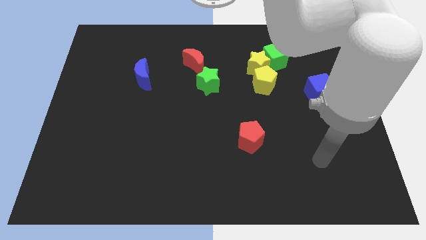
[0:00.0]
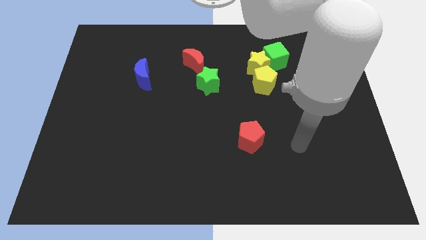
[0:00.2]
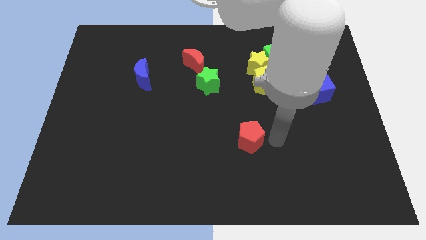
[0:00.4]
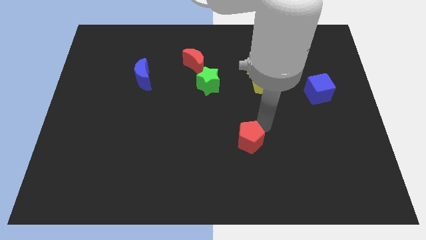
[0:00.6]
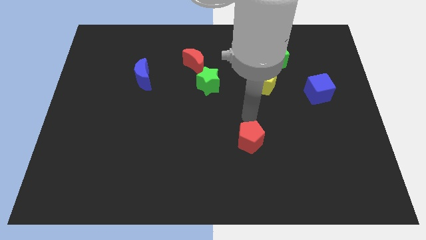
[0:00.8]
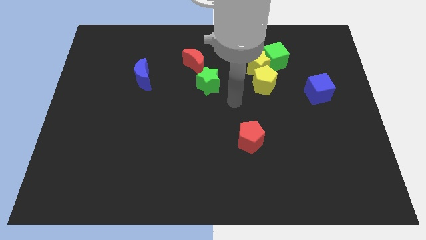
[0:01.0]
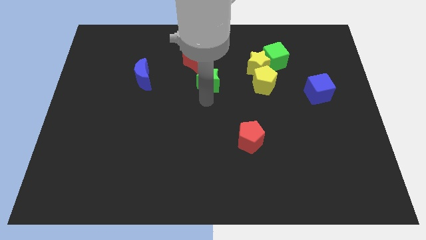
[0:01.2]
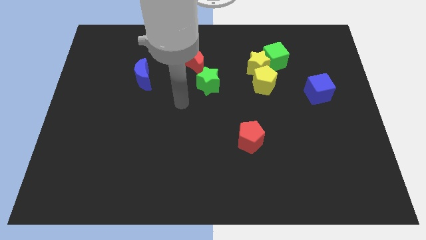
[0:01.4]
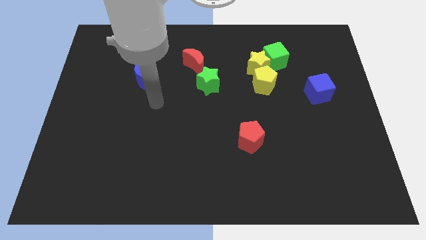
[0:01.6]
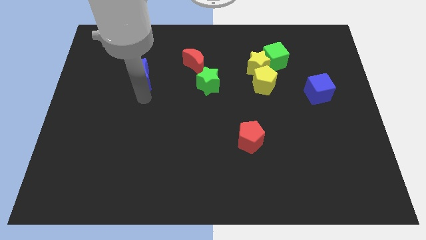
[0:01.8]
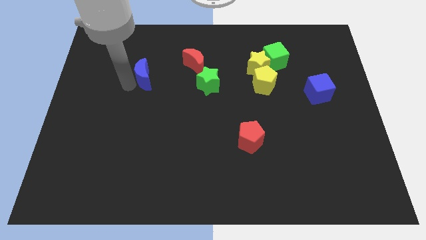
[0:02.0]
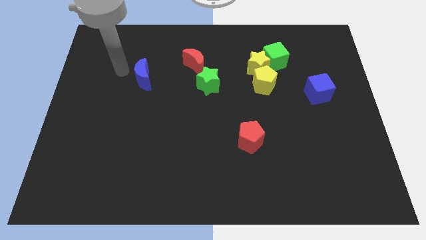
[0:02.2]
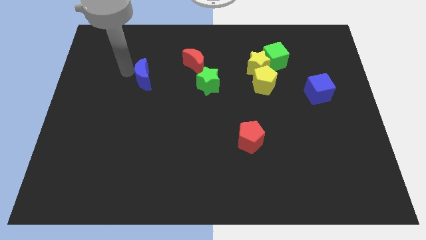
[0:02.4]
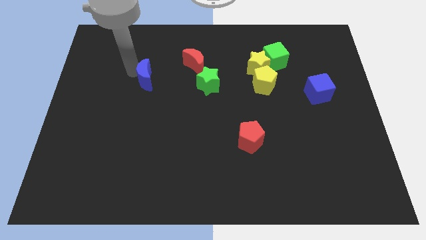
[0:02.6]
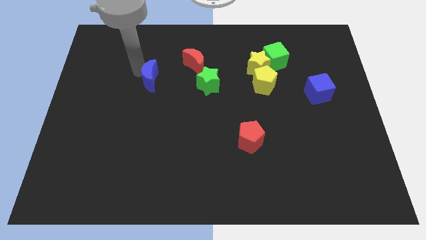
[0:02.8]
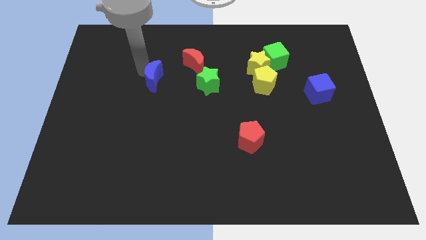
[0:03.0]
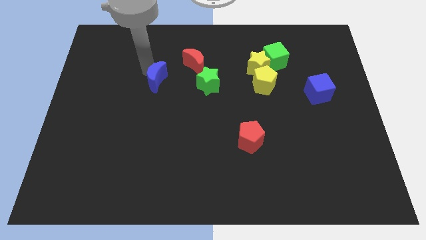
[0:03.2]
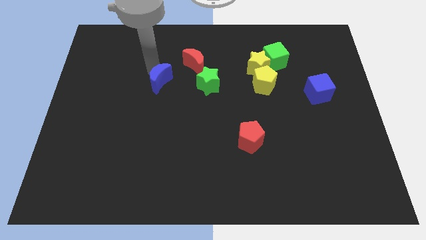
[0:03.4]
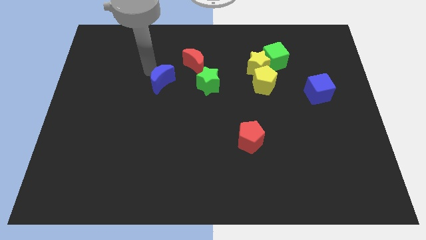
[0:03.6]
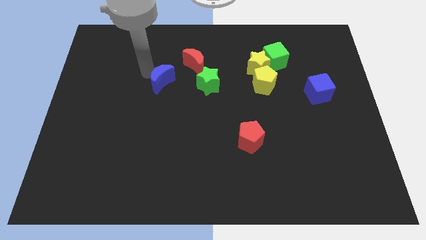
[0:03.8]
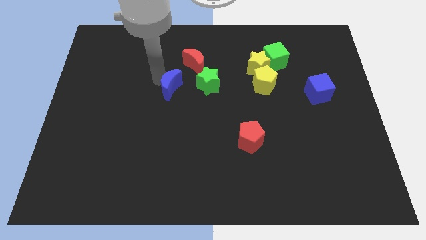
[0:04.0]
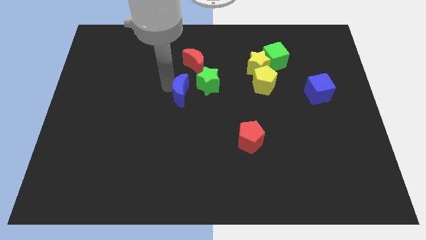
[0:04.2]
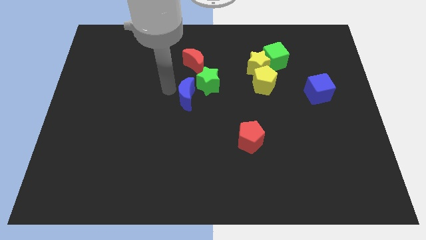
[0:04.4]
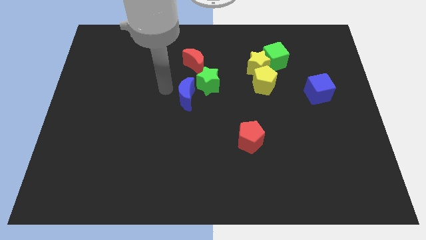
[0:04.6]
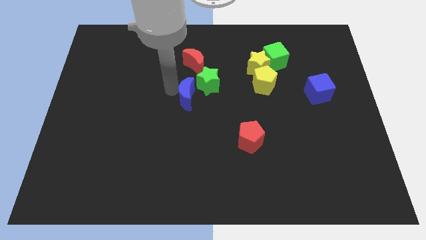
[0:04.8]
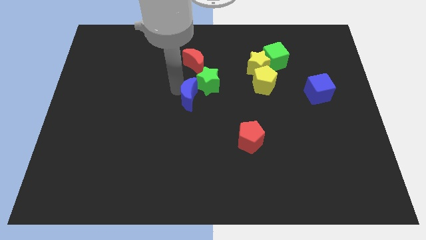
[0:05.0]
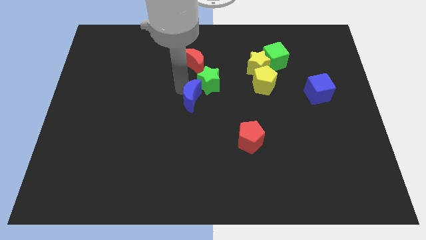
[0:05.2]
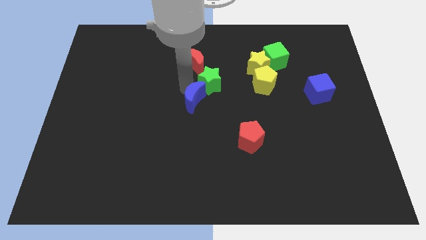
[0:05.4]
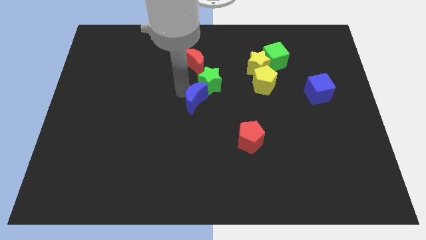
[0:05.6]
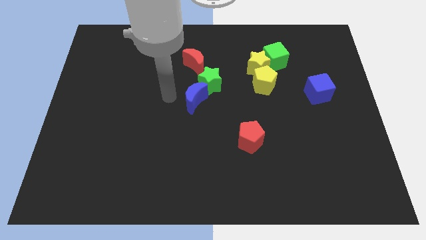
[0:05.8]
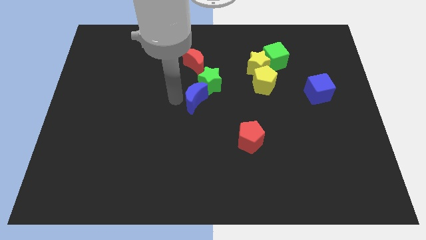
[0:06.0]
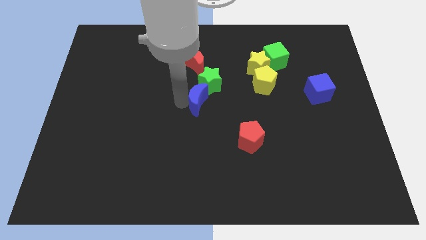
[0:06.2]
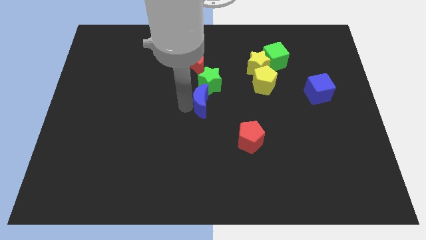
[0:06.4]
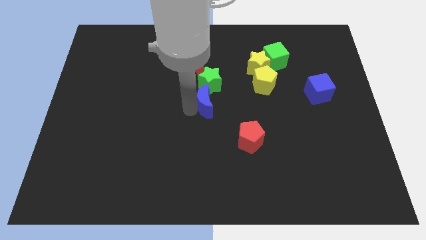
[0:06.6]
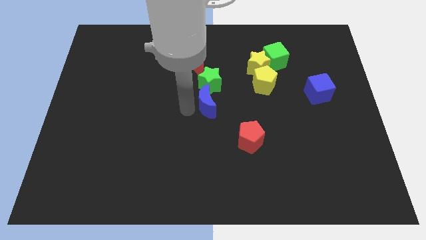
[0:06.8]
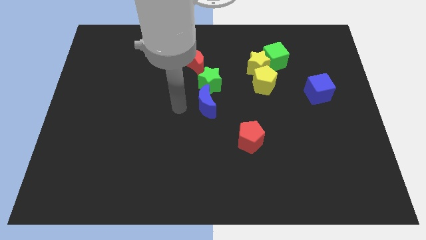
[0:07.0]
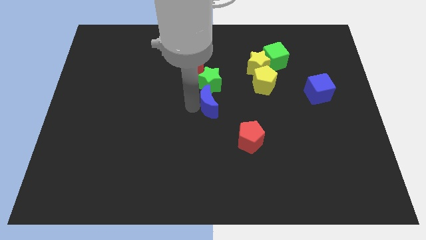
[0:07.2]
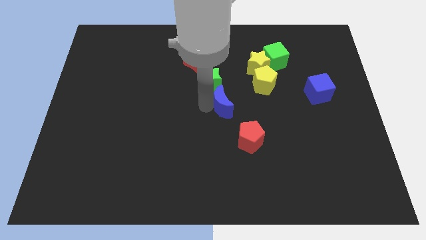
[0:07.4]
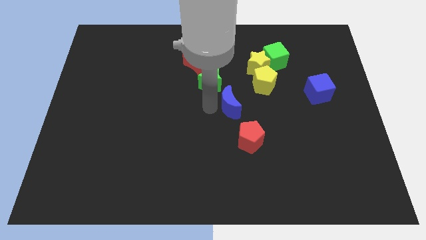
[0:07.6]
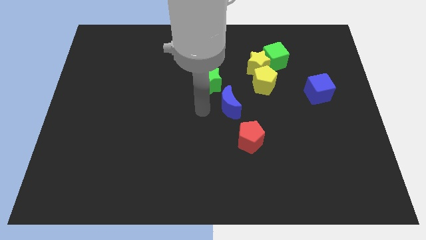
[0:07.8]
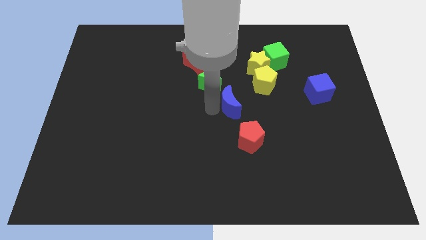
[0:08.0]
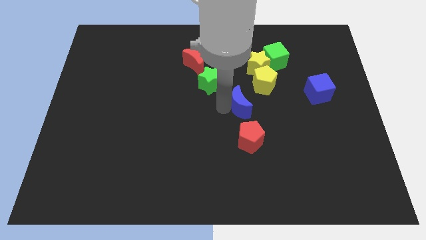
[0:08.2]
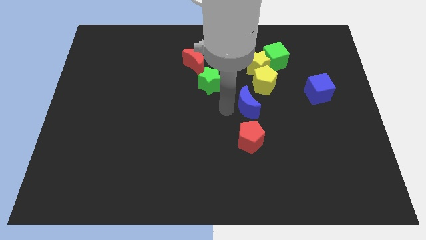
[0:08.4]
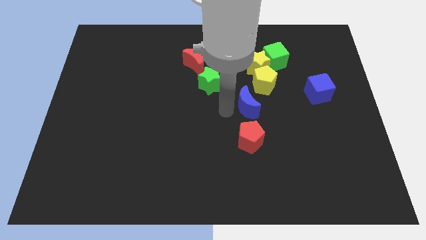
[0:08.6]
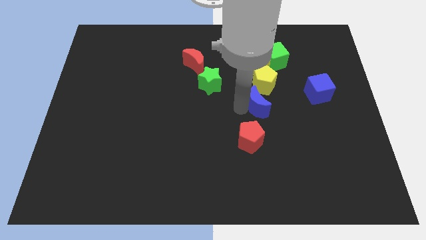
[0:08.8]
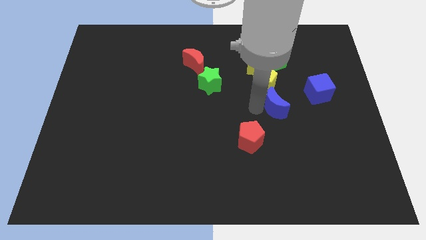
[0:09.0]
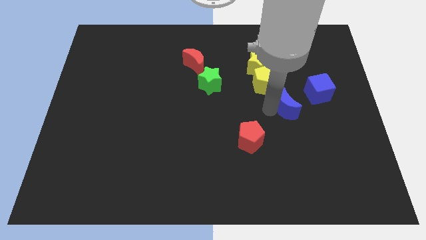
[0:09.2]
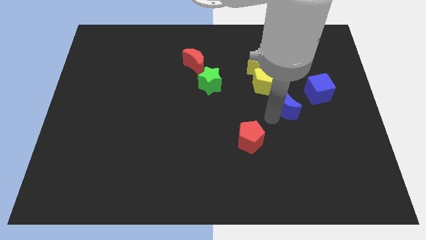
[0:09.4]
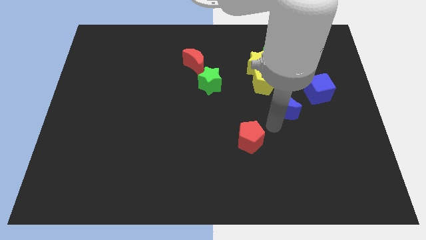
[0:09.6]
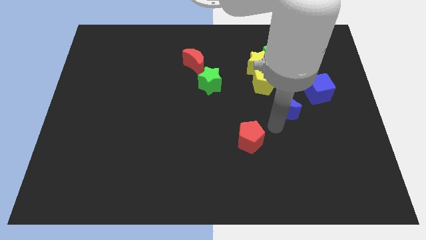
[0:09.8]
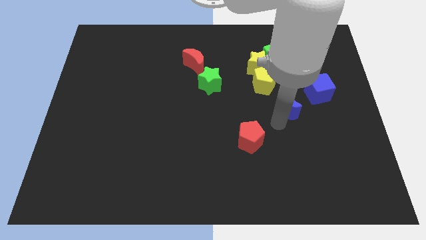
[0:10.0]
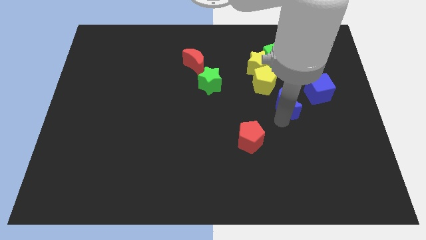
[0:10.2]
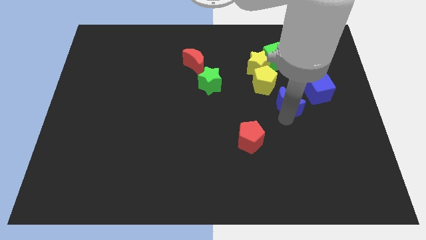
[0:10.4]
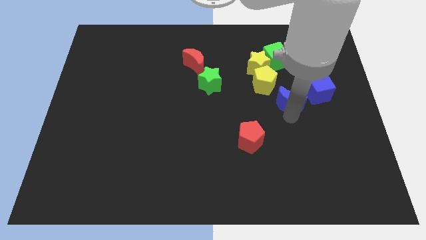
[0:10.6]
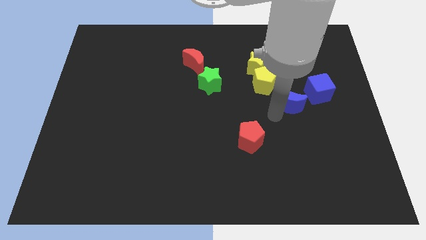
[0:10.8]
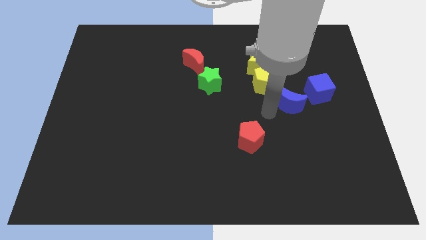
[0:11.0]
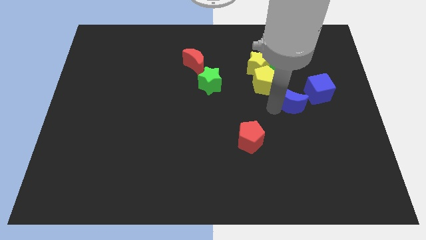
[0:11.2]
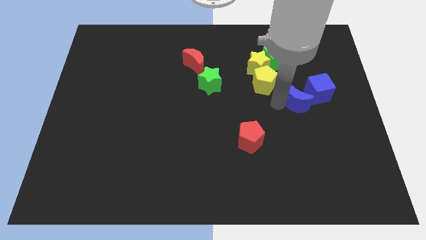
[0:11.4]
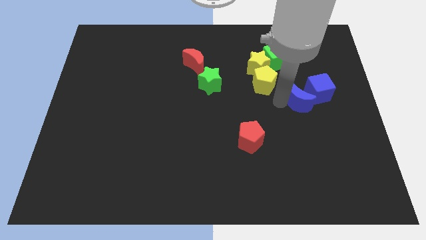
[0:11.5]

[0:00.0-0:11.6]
slide the blue moon to the blue cube
